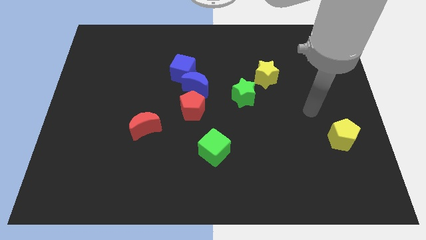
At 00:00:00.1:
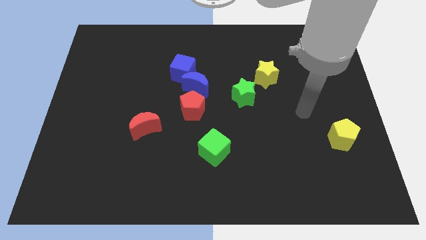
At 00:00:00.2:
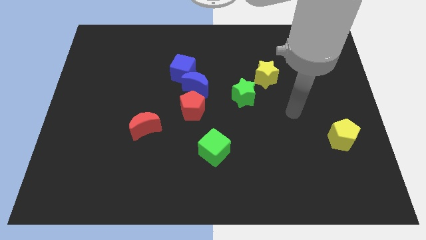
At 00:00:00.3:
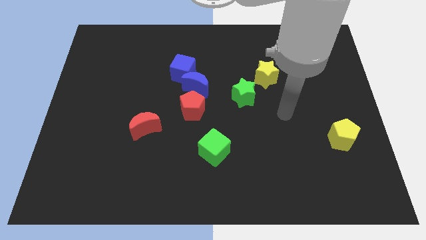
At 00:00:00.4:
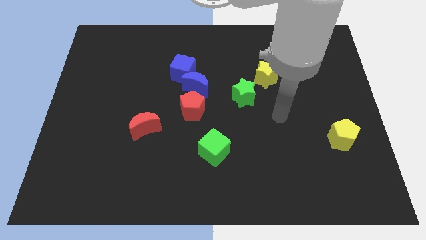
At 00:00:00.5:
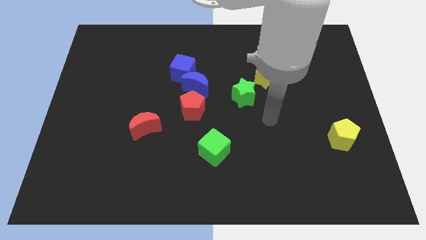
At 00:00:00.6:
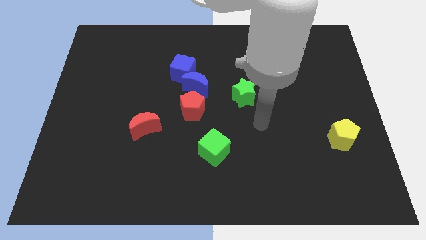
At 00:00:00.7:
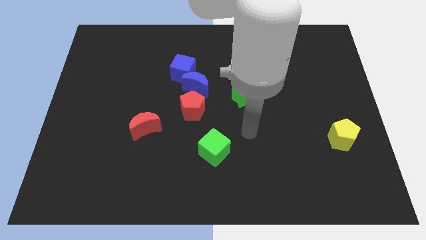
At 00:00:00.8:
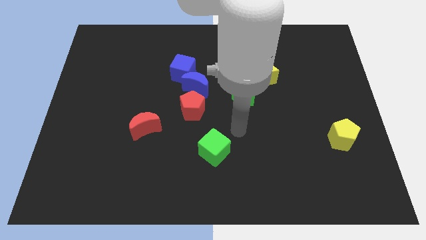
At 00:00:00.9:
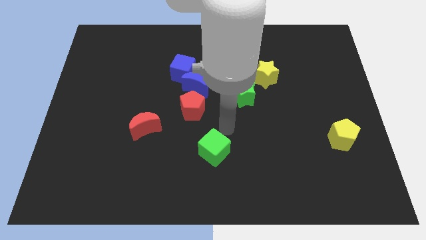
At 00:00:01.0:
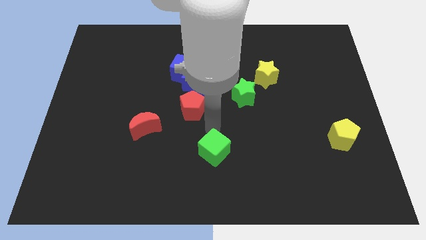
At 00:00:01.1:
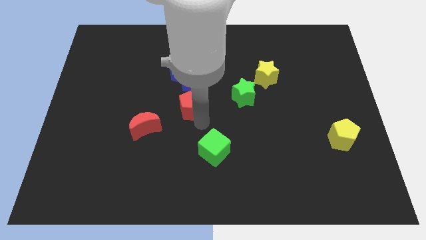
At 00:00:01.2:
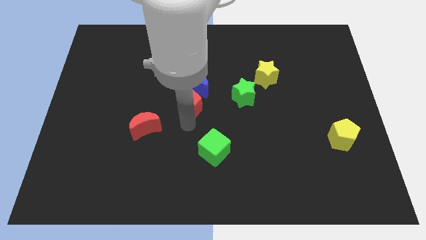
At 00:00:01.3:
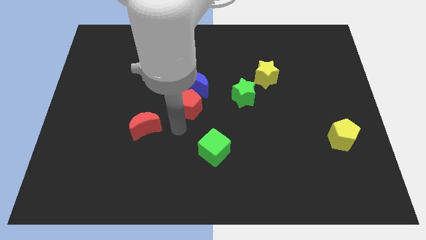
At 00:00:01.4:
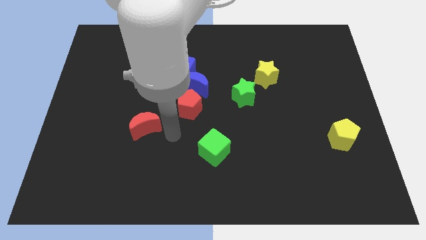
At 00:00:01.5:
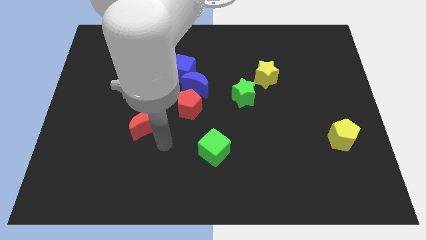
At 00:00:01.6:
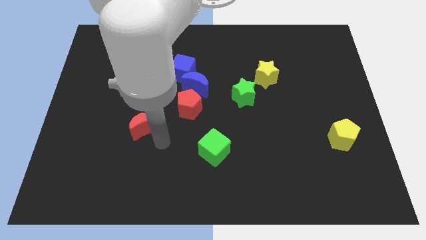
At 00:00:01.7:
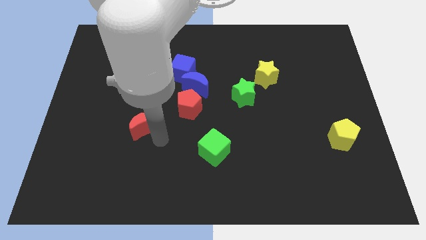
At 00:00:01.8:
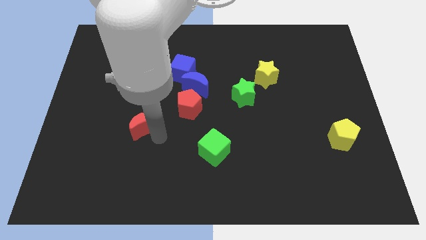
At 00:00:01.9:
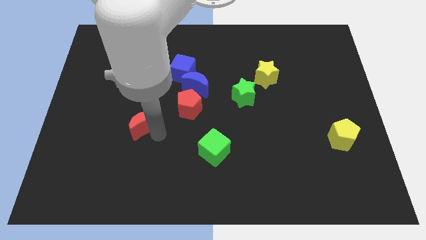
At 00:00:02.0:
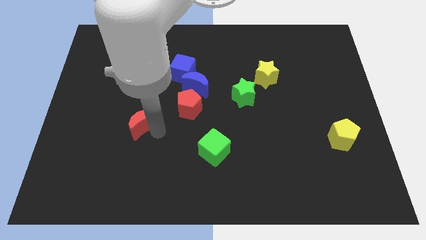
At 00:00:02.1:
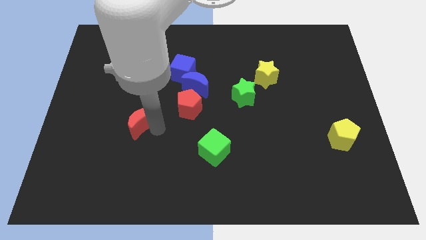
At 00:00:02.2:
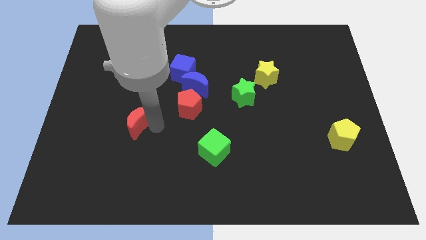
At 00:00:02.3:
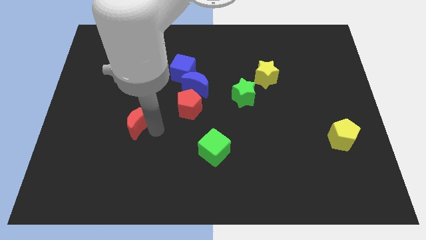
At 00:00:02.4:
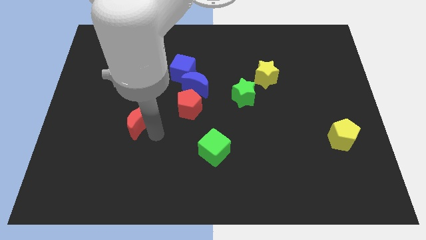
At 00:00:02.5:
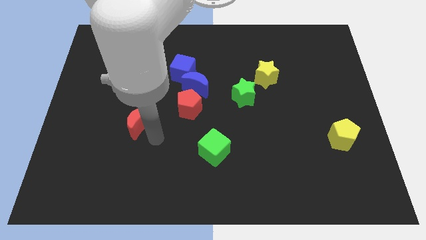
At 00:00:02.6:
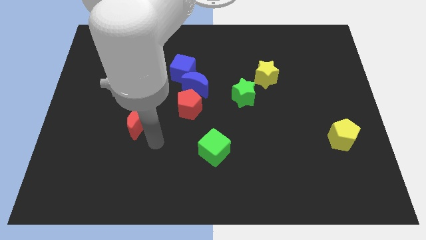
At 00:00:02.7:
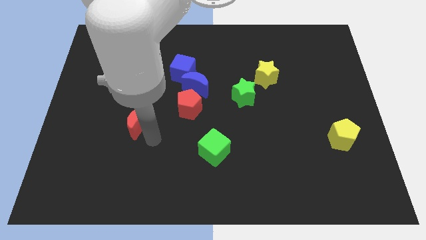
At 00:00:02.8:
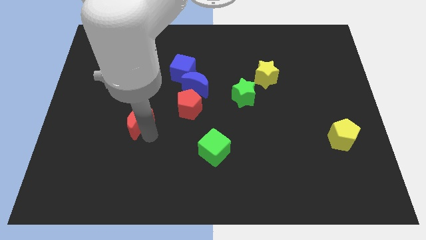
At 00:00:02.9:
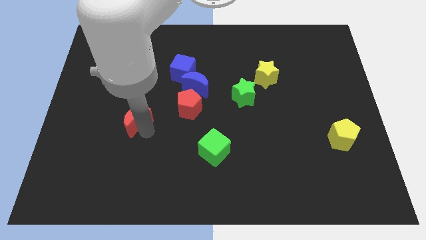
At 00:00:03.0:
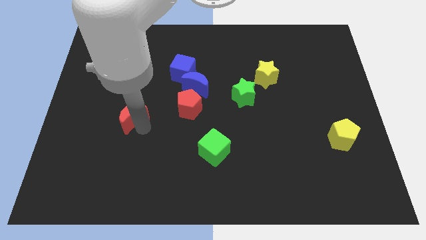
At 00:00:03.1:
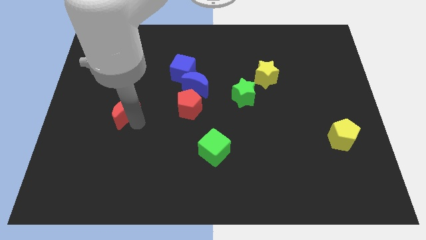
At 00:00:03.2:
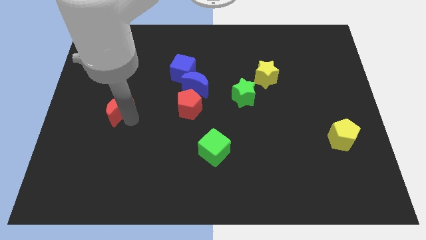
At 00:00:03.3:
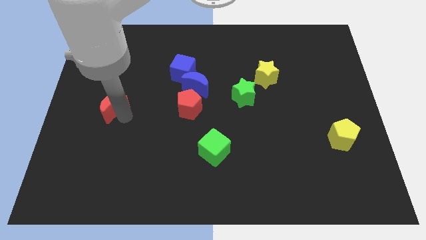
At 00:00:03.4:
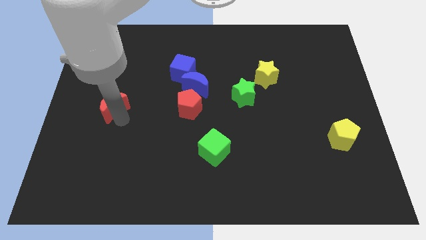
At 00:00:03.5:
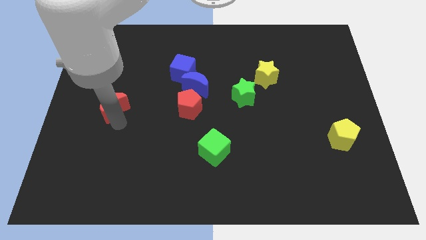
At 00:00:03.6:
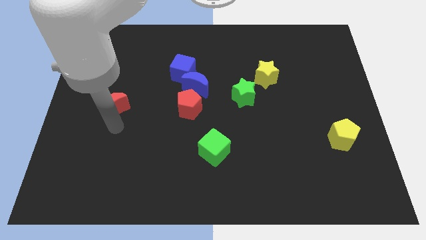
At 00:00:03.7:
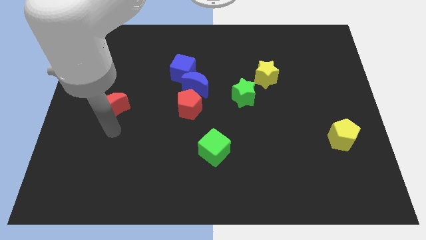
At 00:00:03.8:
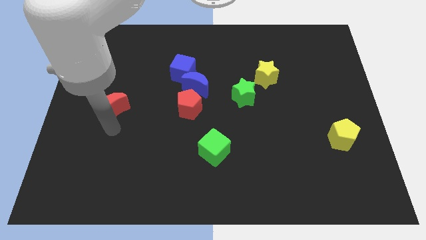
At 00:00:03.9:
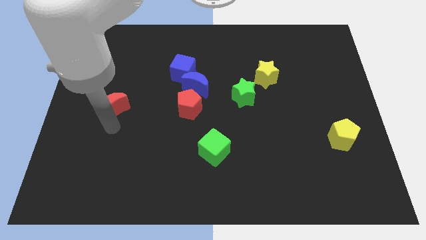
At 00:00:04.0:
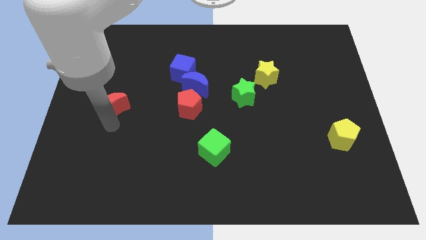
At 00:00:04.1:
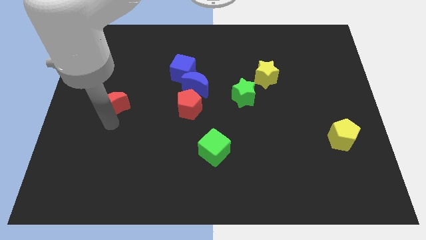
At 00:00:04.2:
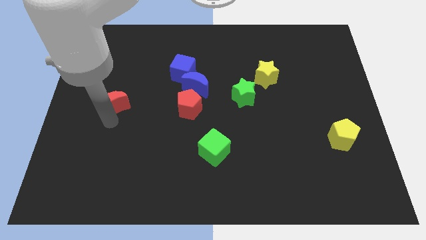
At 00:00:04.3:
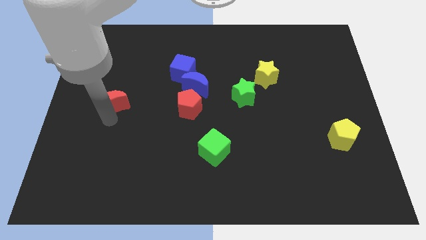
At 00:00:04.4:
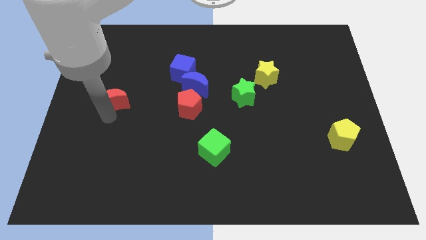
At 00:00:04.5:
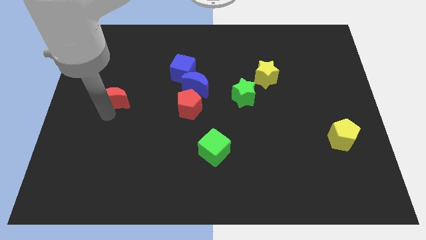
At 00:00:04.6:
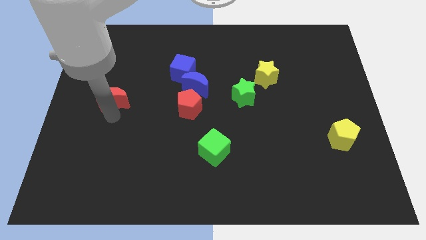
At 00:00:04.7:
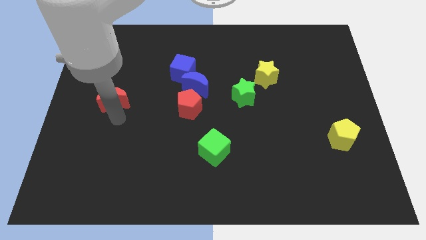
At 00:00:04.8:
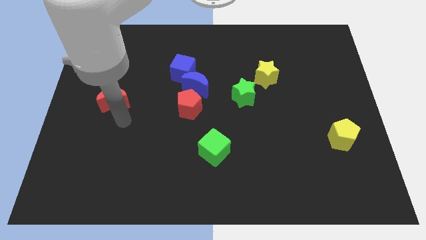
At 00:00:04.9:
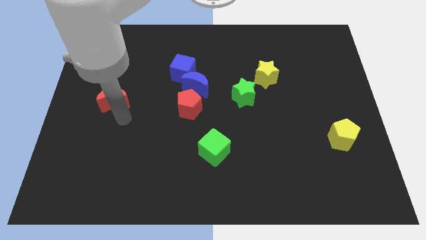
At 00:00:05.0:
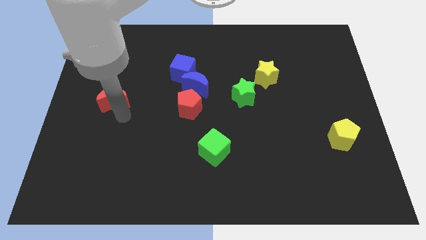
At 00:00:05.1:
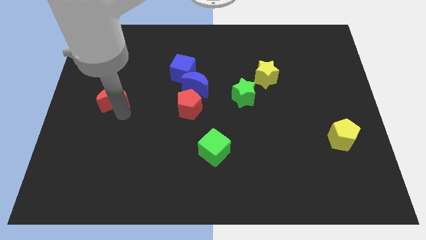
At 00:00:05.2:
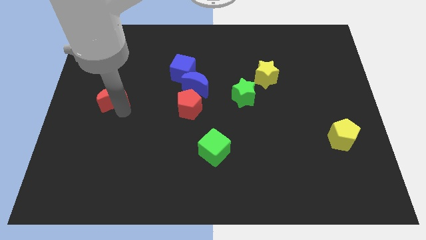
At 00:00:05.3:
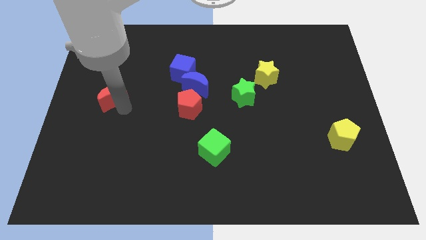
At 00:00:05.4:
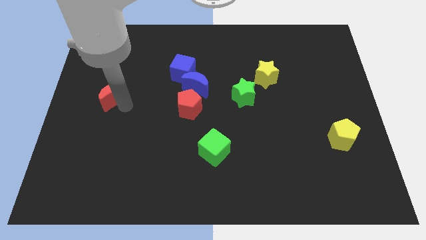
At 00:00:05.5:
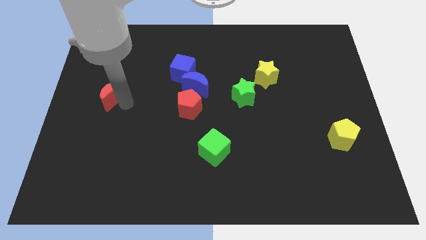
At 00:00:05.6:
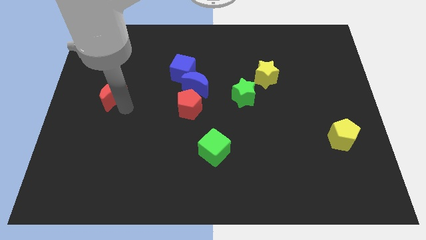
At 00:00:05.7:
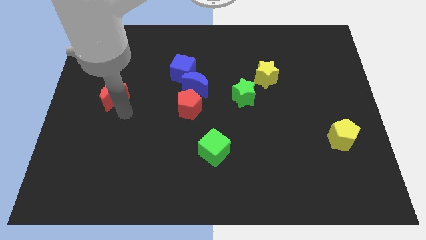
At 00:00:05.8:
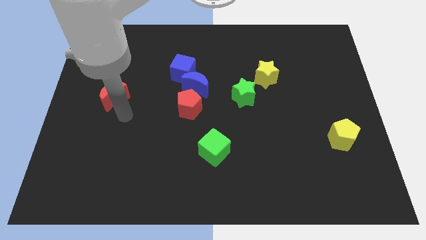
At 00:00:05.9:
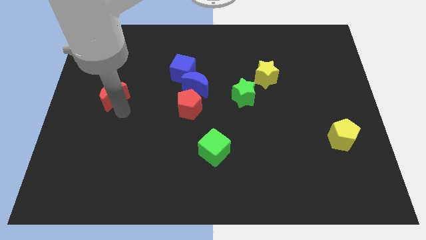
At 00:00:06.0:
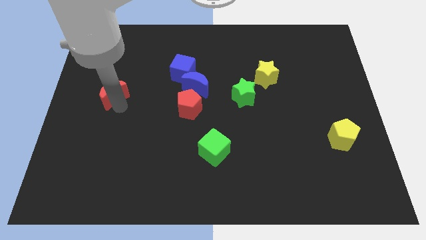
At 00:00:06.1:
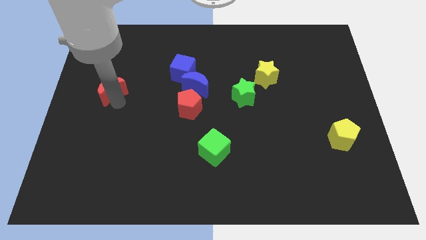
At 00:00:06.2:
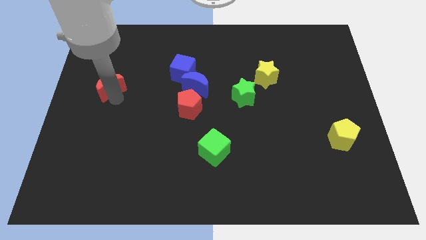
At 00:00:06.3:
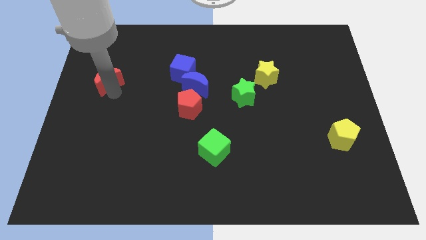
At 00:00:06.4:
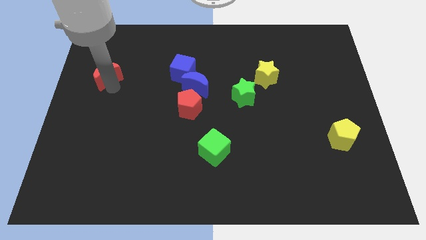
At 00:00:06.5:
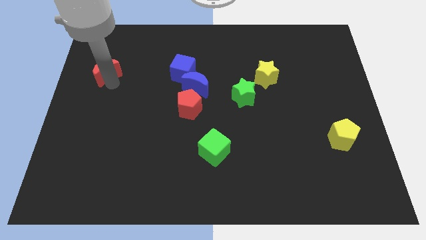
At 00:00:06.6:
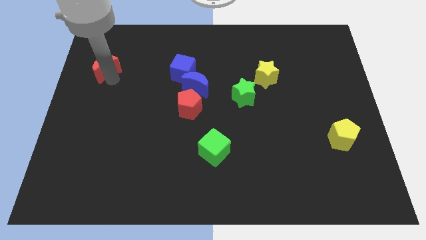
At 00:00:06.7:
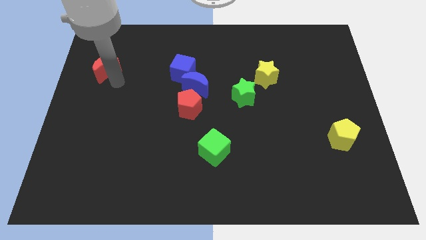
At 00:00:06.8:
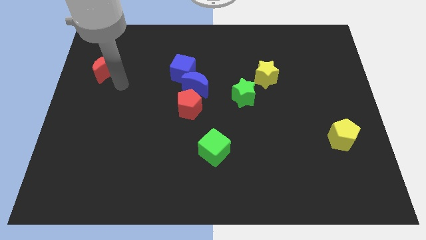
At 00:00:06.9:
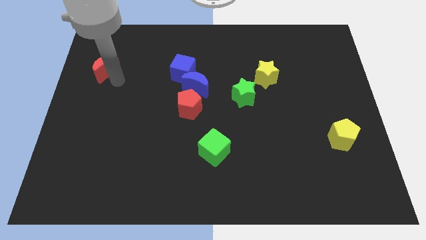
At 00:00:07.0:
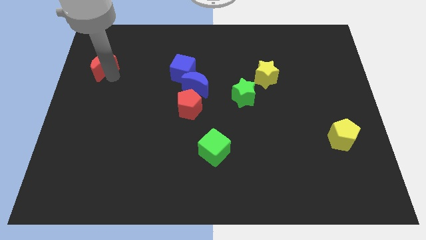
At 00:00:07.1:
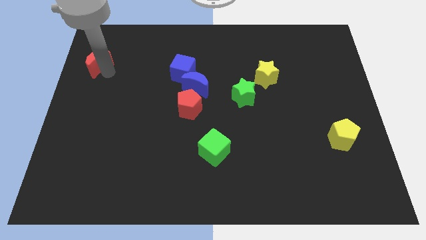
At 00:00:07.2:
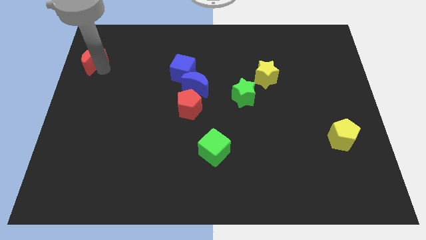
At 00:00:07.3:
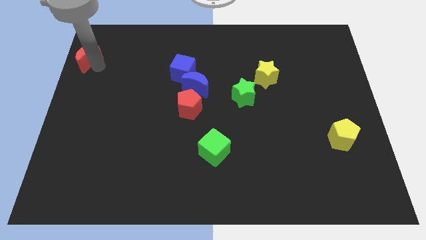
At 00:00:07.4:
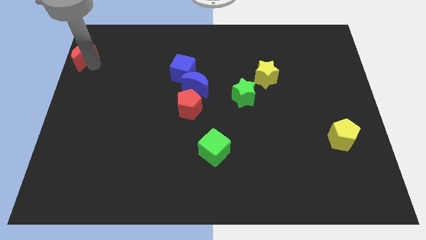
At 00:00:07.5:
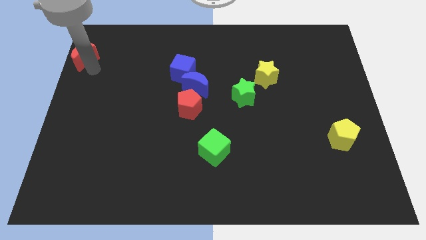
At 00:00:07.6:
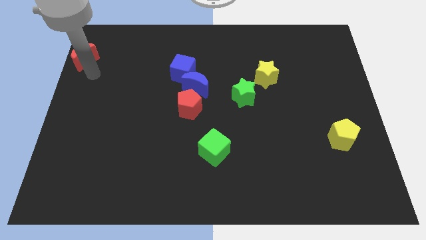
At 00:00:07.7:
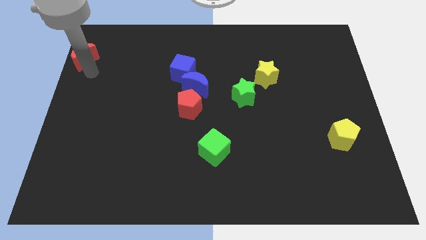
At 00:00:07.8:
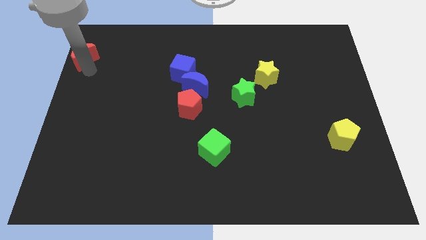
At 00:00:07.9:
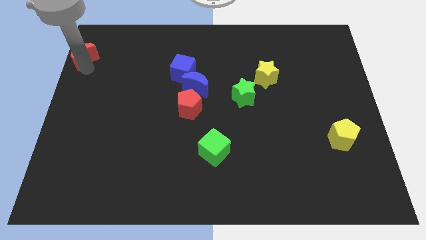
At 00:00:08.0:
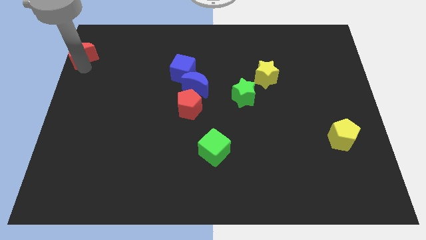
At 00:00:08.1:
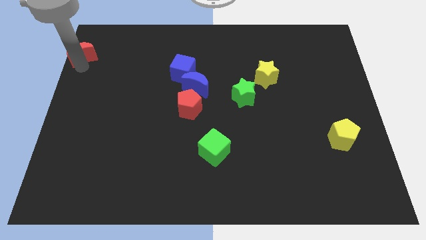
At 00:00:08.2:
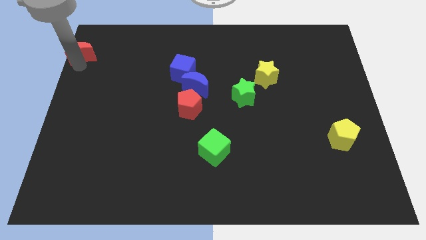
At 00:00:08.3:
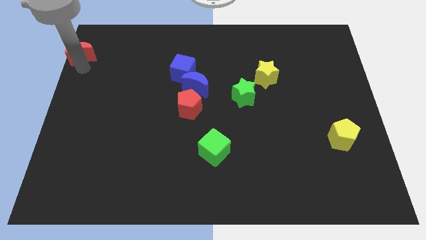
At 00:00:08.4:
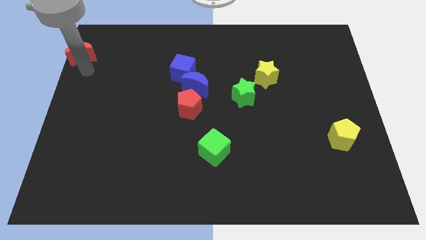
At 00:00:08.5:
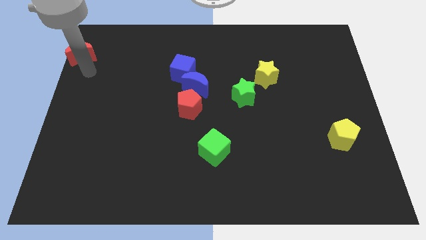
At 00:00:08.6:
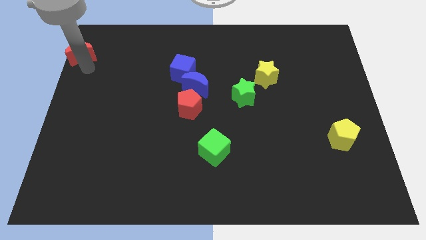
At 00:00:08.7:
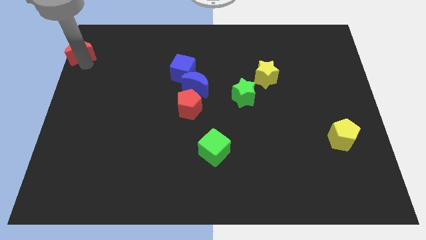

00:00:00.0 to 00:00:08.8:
put the red moon to the top left corner
